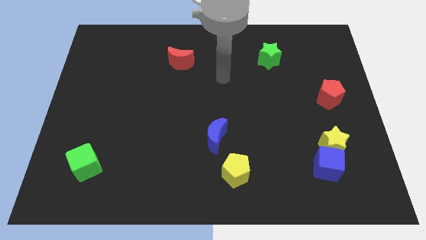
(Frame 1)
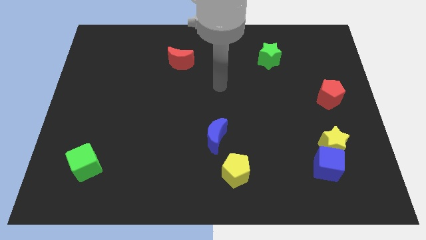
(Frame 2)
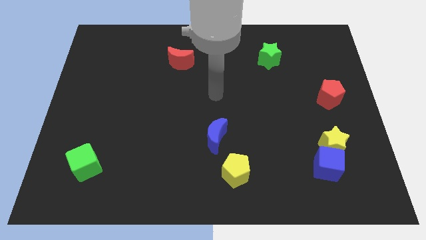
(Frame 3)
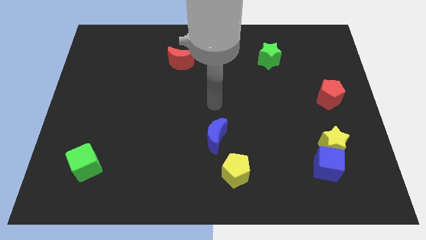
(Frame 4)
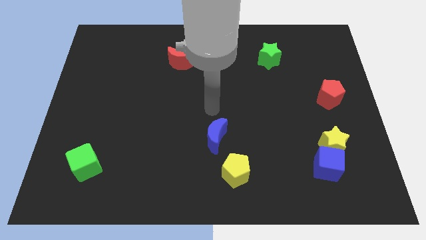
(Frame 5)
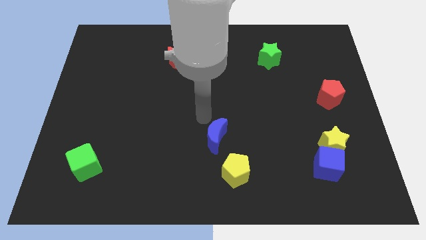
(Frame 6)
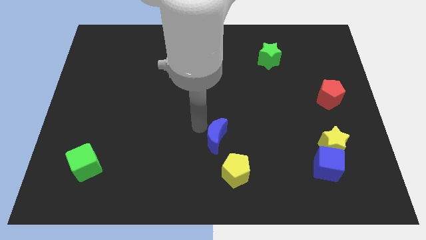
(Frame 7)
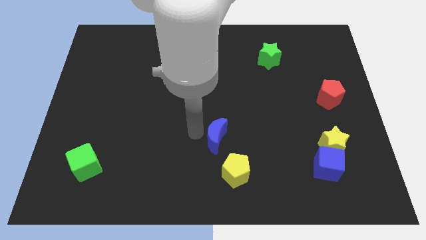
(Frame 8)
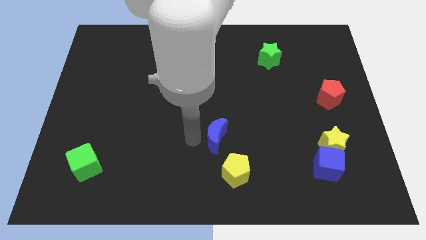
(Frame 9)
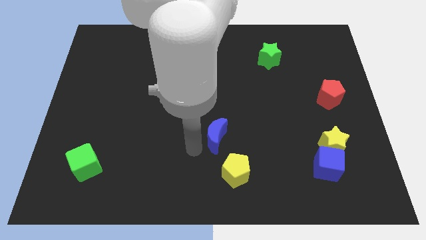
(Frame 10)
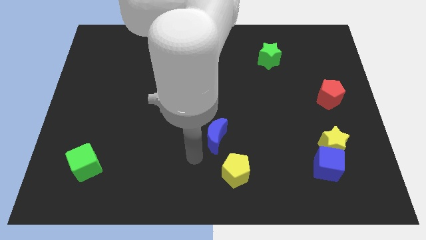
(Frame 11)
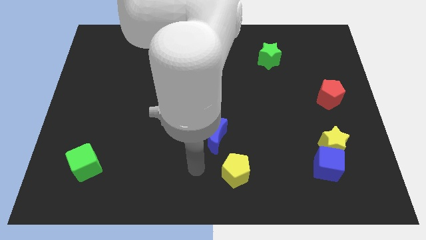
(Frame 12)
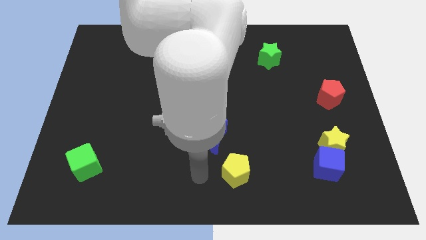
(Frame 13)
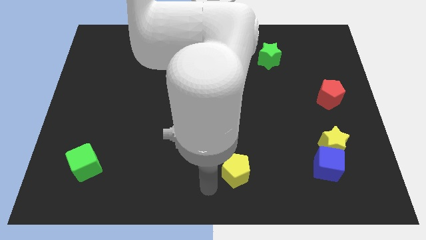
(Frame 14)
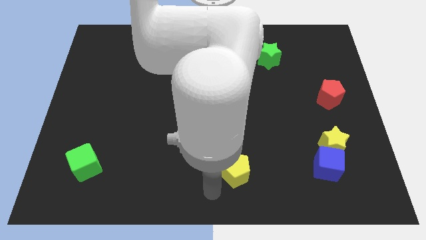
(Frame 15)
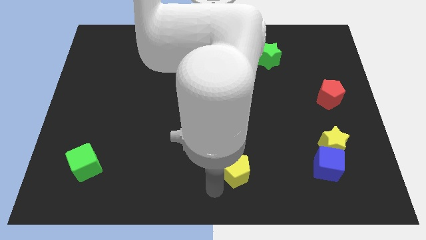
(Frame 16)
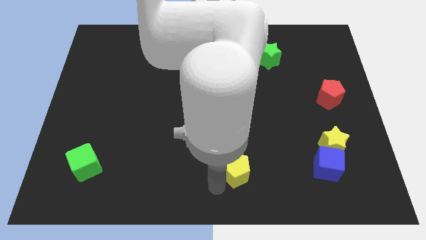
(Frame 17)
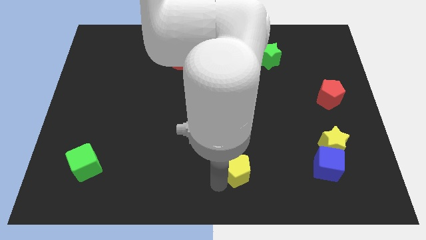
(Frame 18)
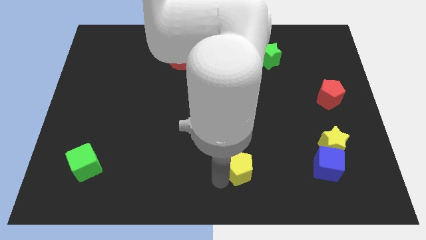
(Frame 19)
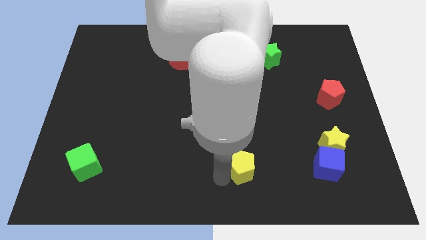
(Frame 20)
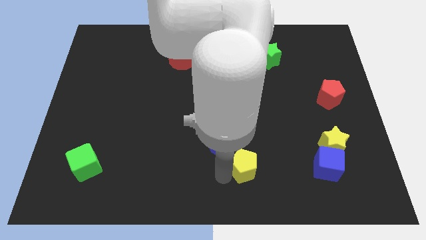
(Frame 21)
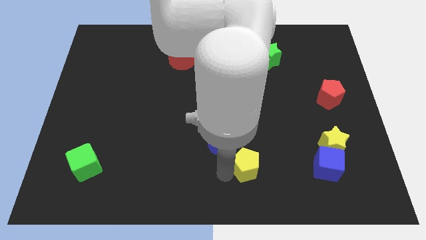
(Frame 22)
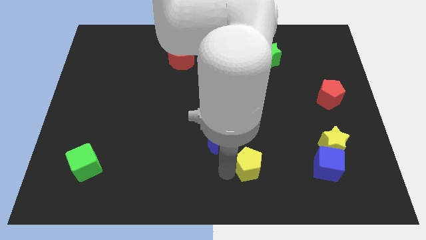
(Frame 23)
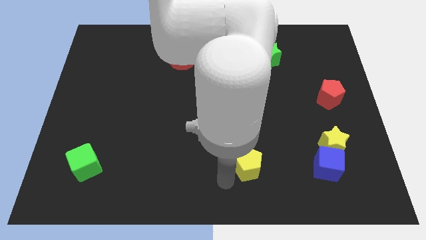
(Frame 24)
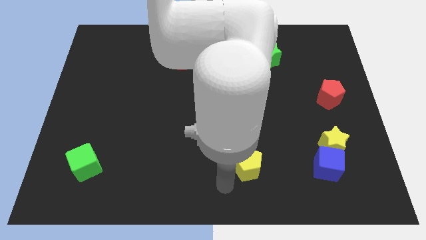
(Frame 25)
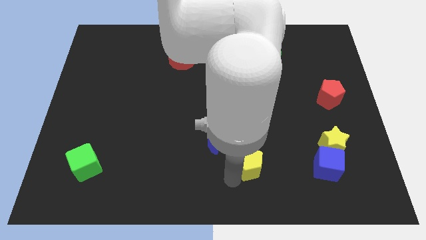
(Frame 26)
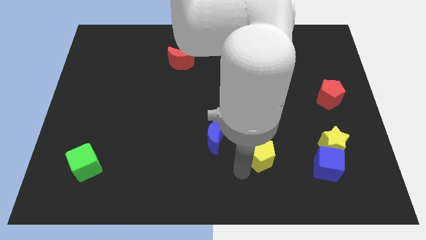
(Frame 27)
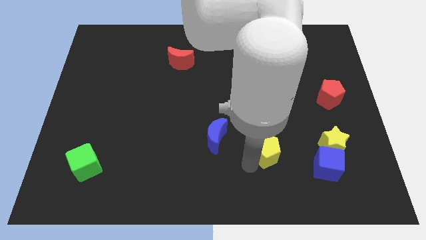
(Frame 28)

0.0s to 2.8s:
slide the yellow pentagon somewhat upwards and to the right diagonally

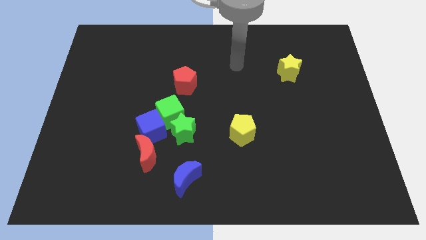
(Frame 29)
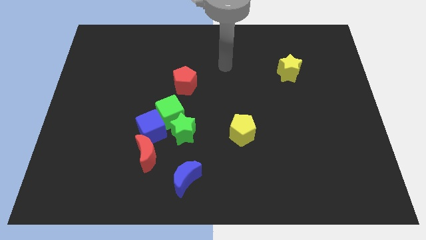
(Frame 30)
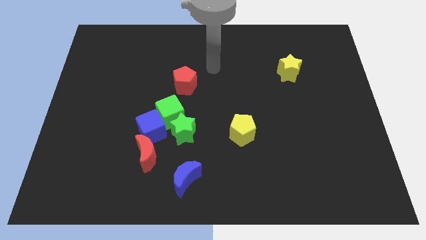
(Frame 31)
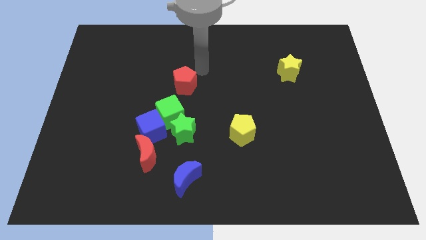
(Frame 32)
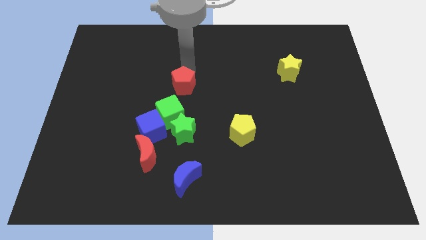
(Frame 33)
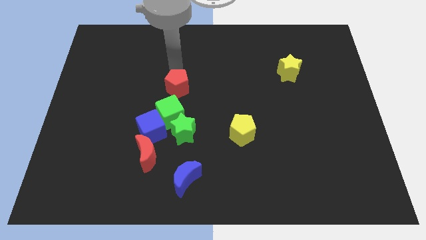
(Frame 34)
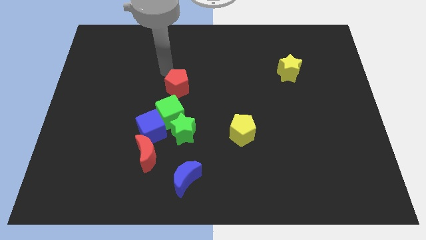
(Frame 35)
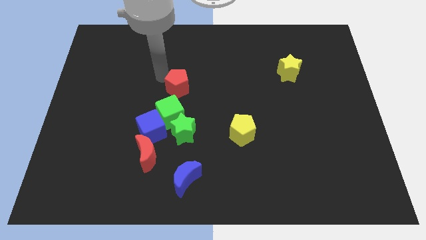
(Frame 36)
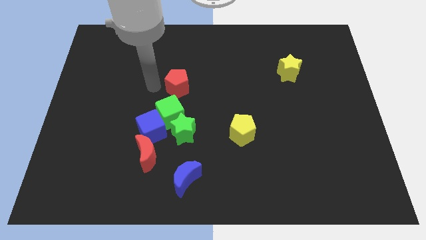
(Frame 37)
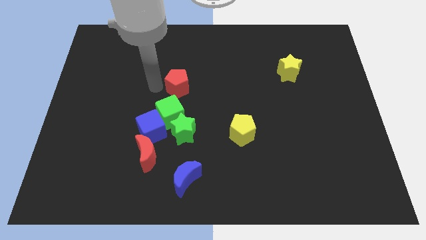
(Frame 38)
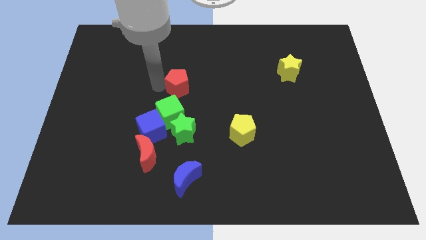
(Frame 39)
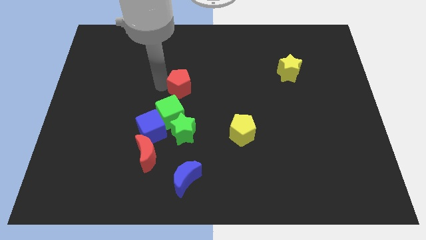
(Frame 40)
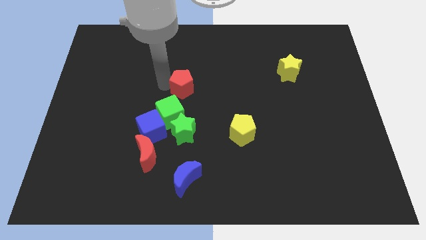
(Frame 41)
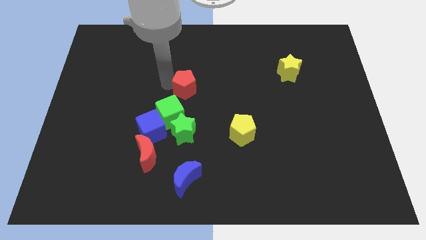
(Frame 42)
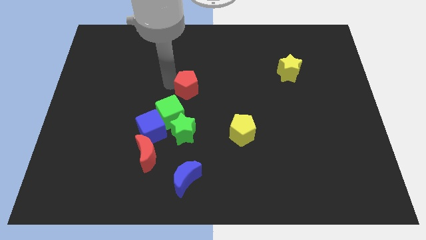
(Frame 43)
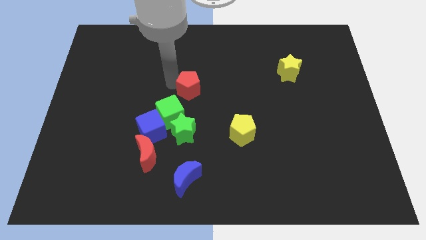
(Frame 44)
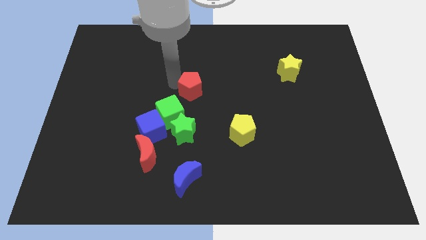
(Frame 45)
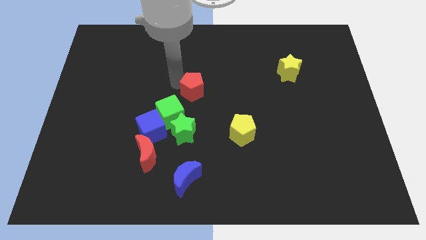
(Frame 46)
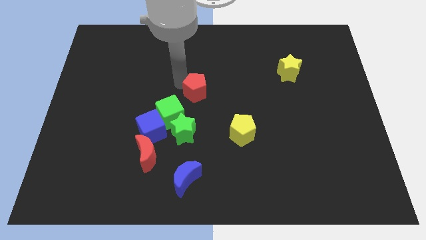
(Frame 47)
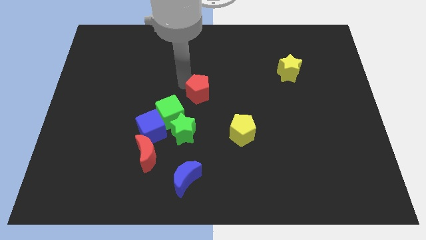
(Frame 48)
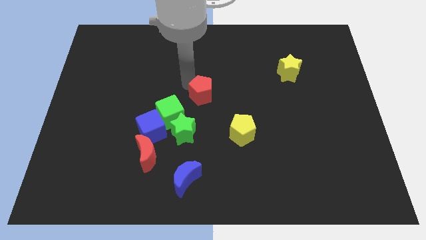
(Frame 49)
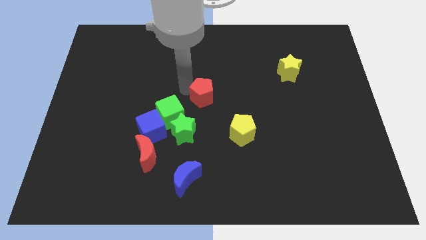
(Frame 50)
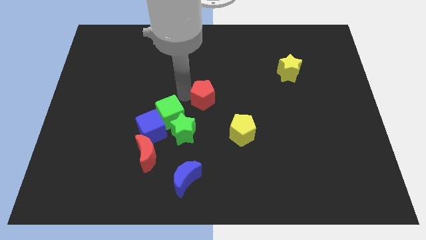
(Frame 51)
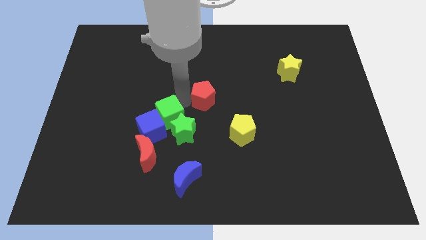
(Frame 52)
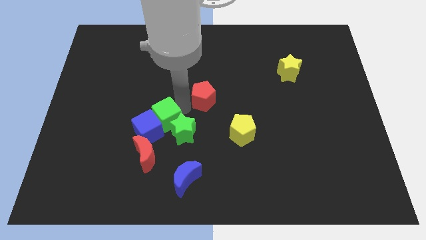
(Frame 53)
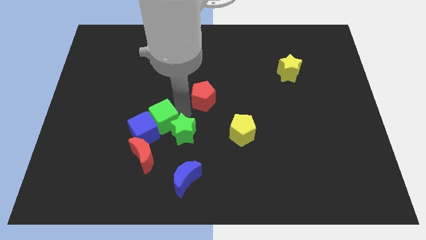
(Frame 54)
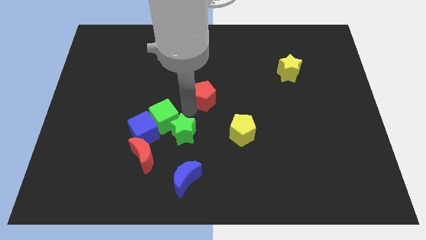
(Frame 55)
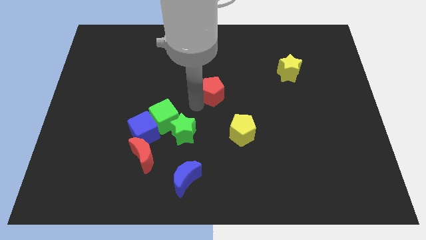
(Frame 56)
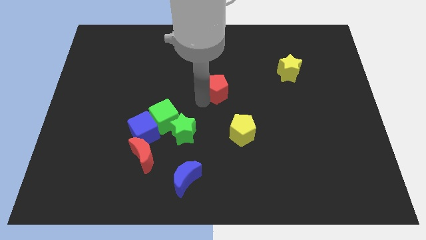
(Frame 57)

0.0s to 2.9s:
slightly push the red pentagon to the right

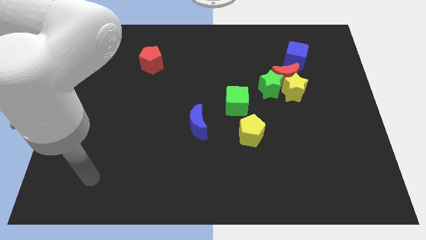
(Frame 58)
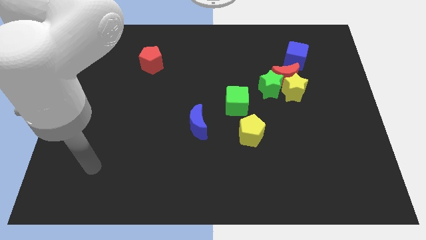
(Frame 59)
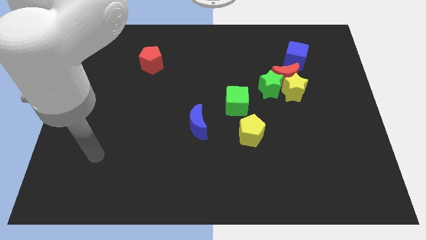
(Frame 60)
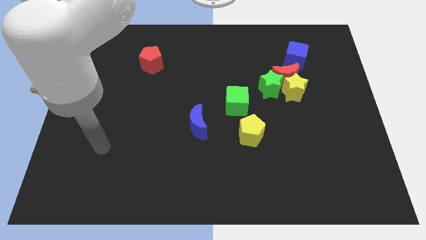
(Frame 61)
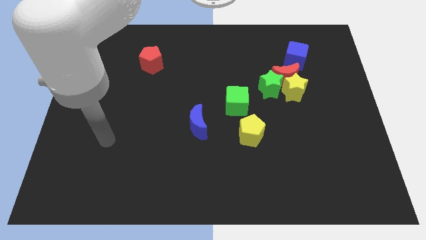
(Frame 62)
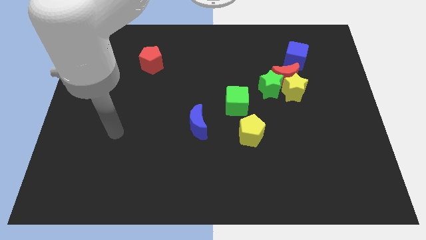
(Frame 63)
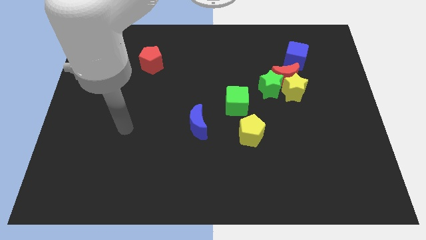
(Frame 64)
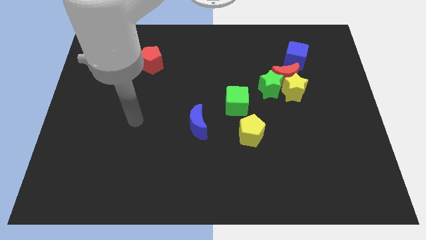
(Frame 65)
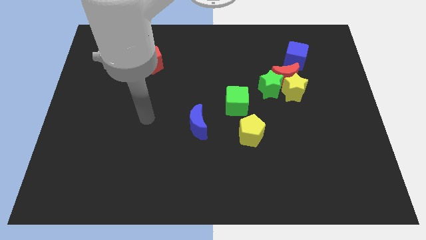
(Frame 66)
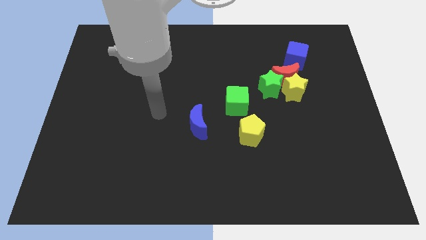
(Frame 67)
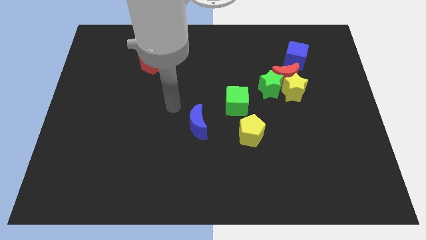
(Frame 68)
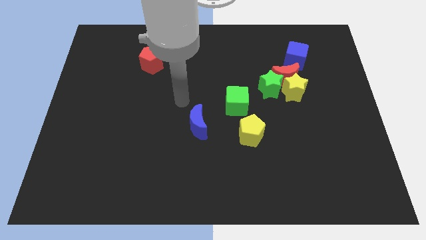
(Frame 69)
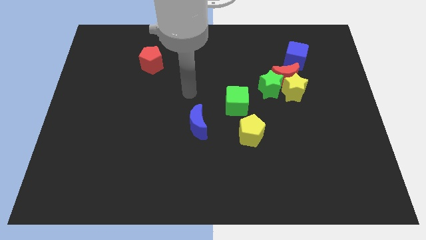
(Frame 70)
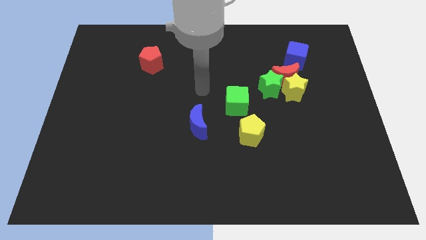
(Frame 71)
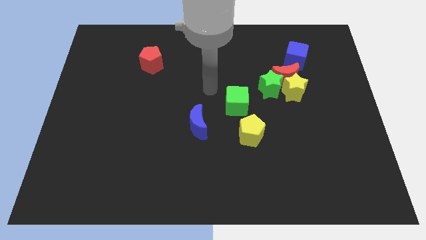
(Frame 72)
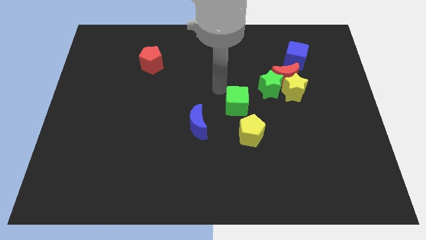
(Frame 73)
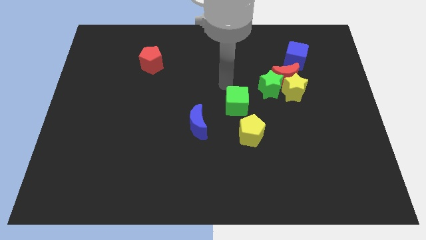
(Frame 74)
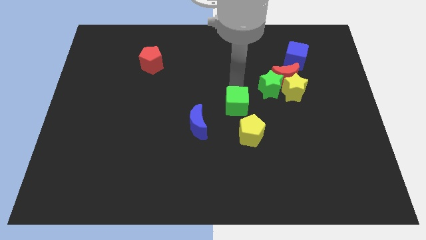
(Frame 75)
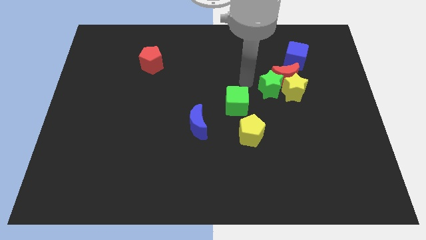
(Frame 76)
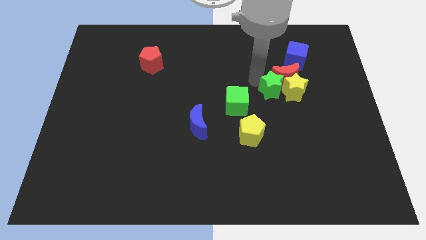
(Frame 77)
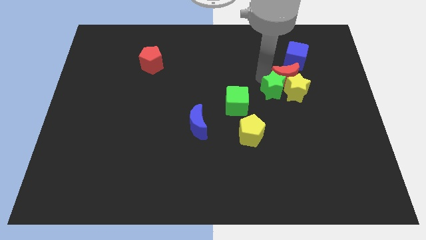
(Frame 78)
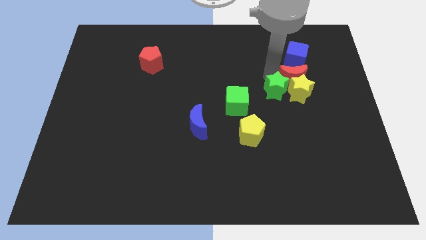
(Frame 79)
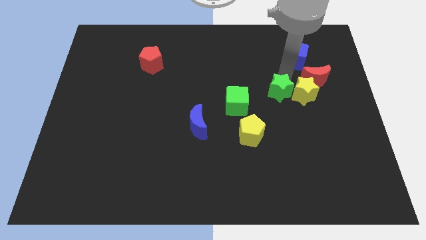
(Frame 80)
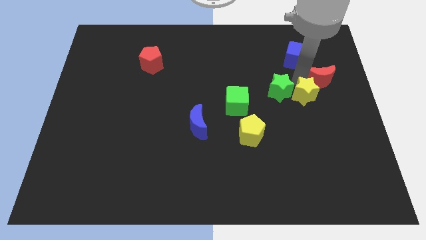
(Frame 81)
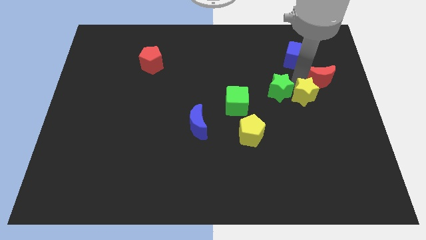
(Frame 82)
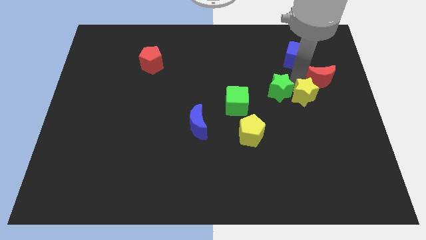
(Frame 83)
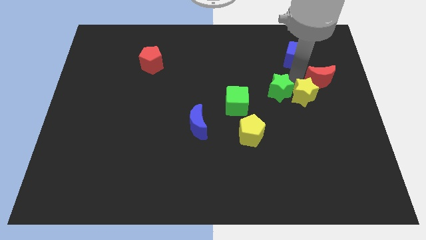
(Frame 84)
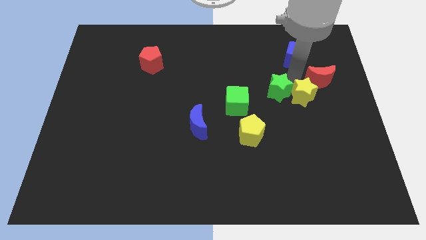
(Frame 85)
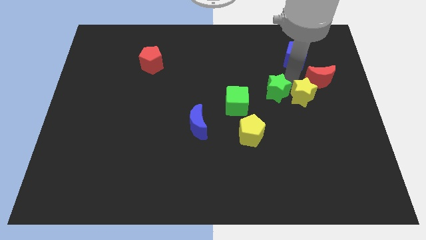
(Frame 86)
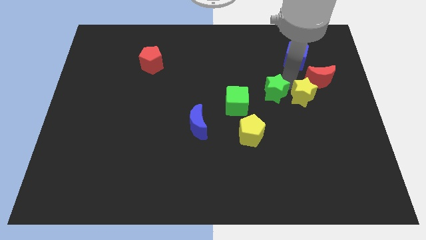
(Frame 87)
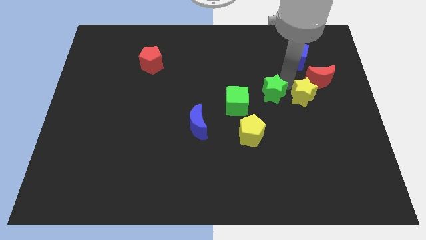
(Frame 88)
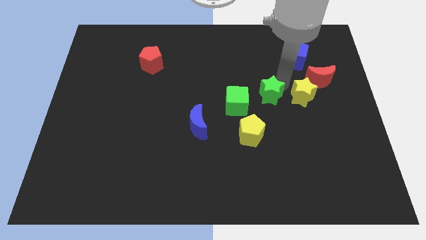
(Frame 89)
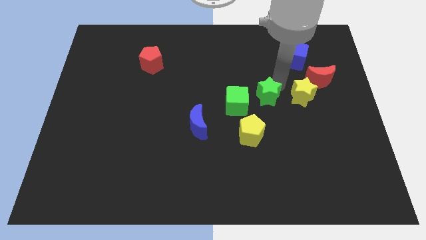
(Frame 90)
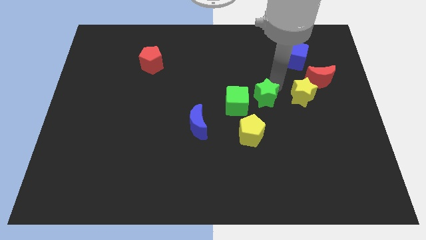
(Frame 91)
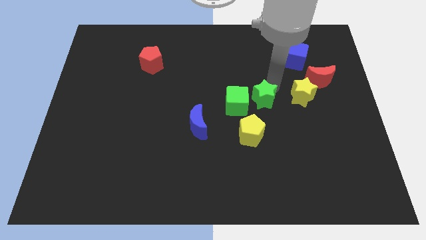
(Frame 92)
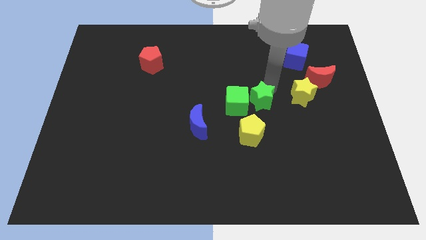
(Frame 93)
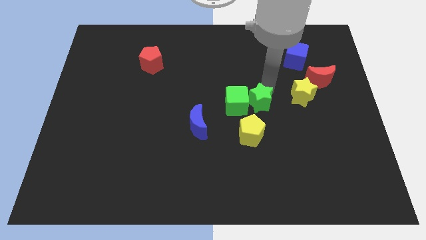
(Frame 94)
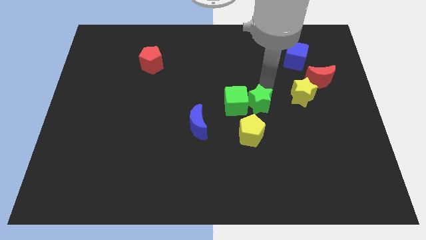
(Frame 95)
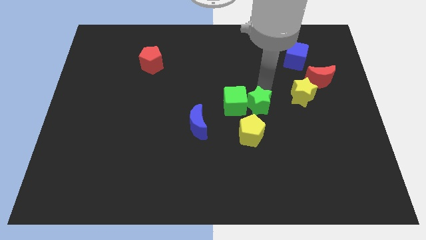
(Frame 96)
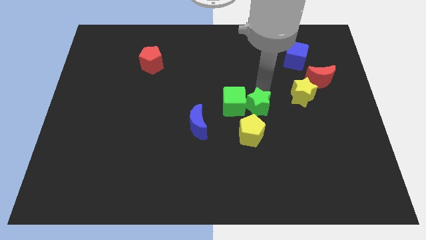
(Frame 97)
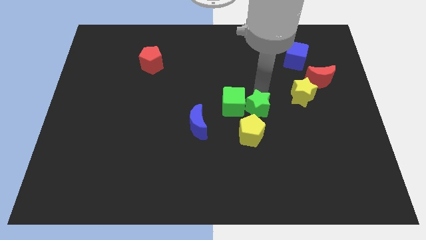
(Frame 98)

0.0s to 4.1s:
move the green star a little downwards and to the left diagonally
